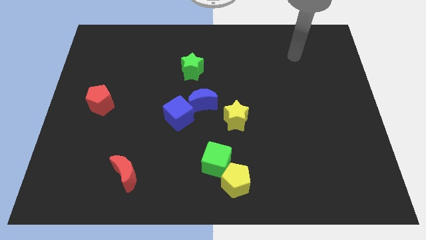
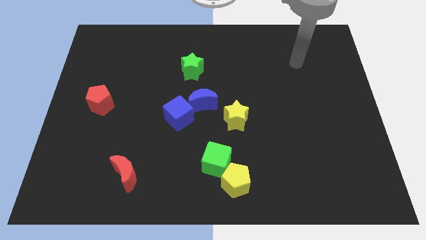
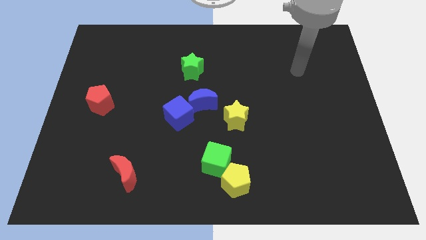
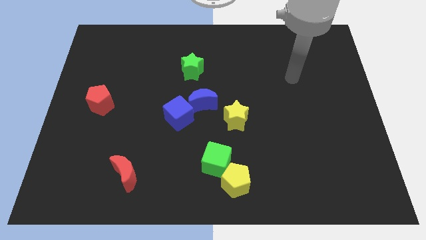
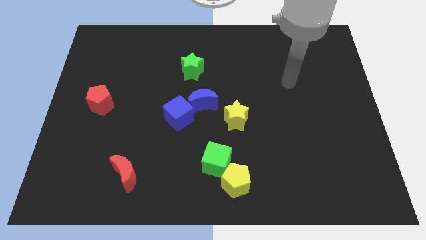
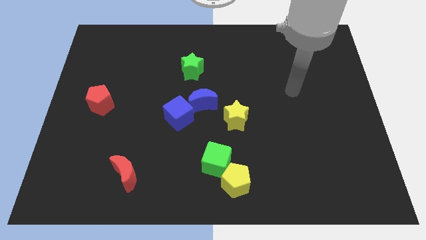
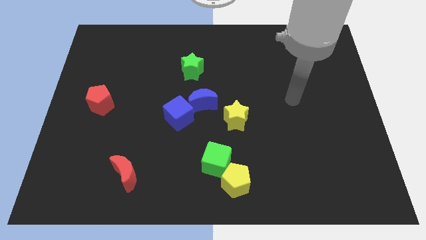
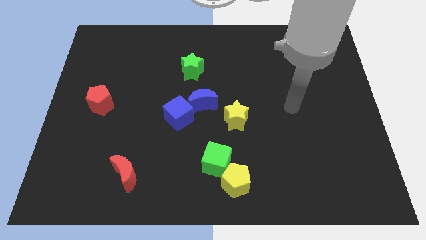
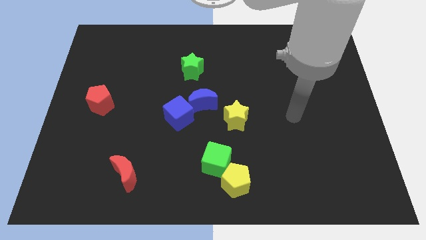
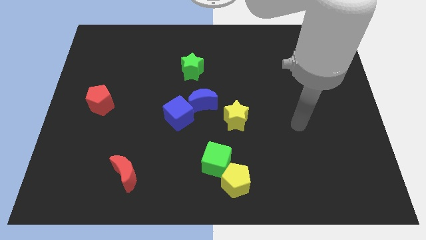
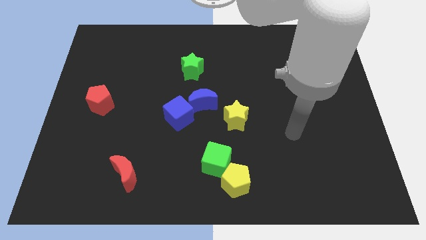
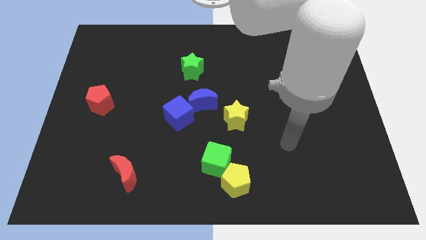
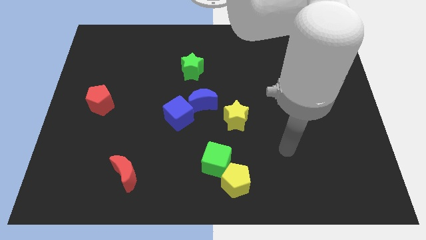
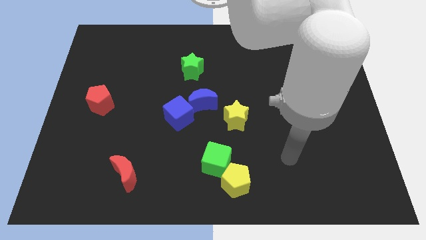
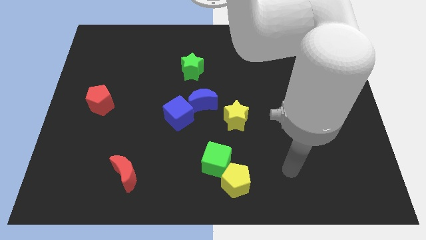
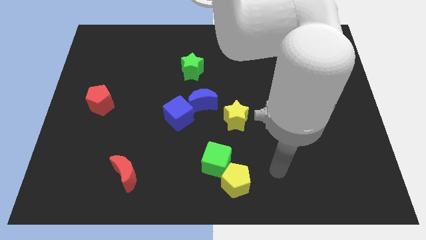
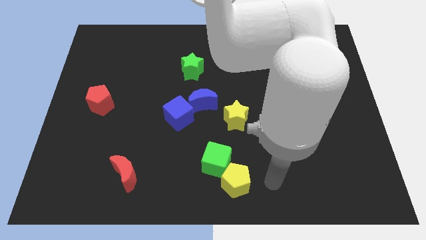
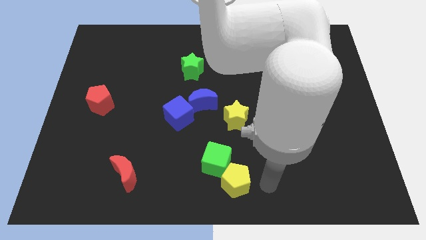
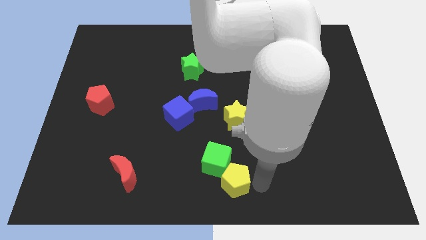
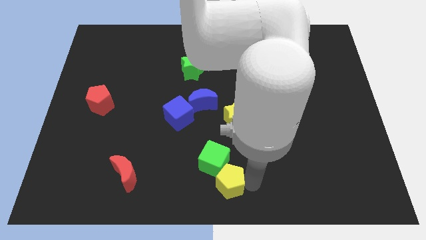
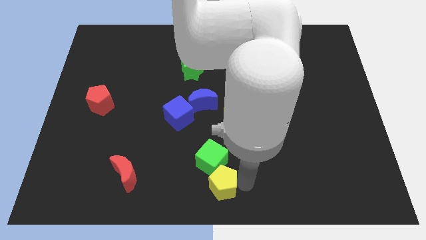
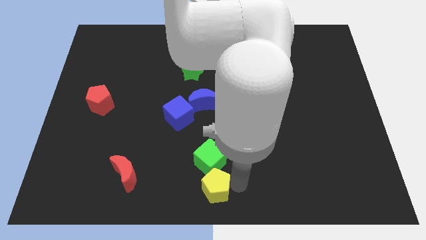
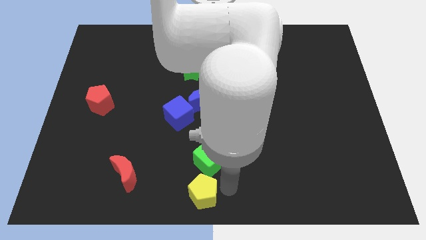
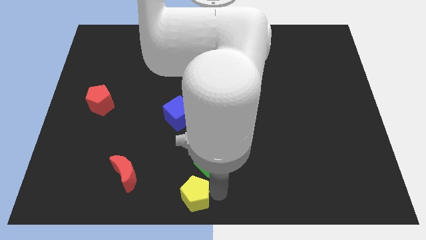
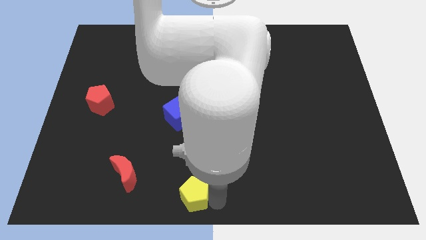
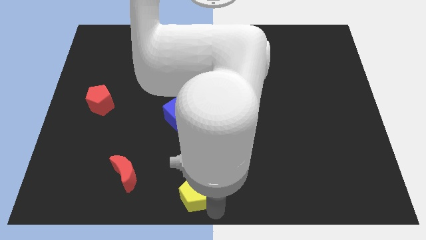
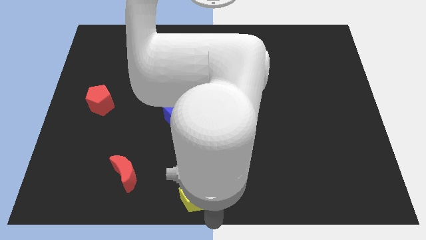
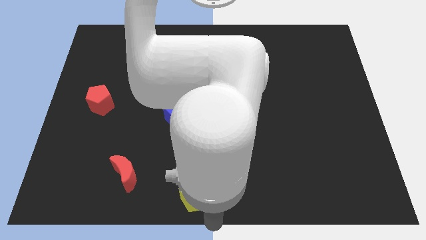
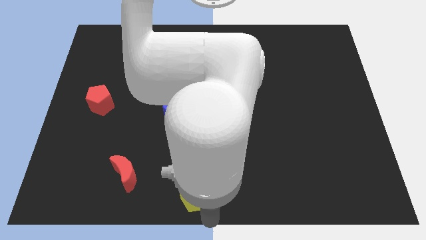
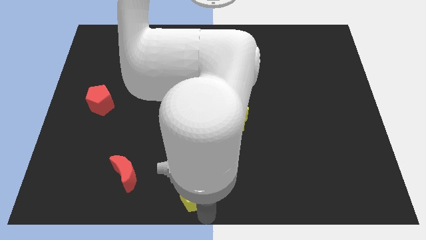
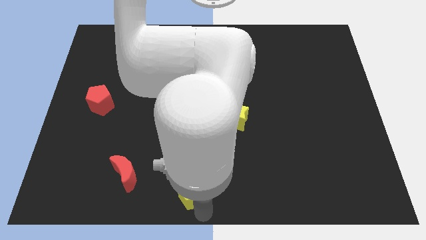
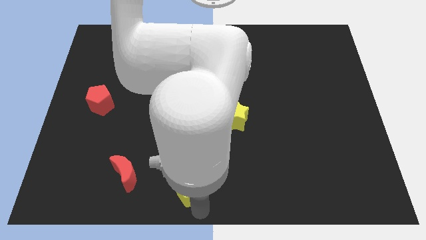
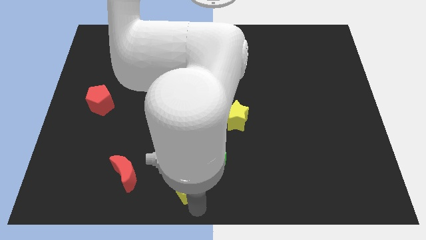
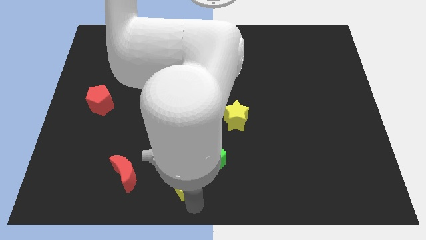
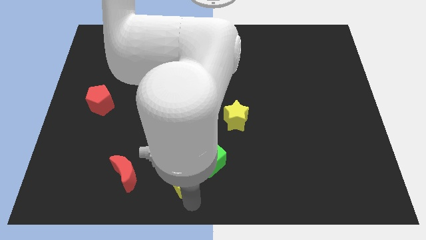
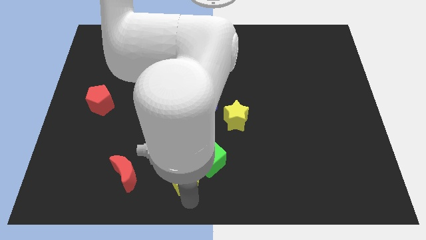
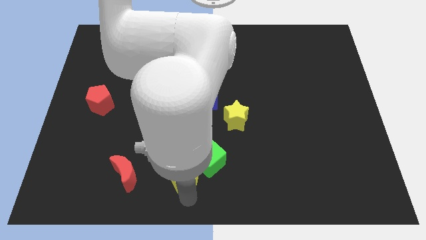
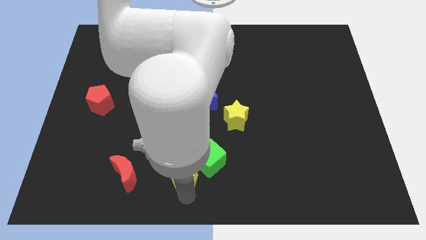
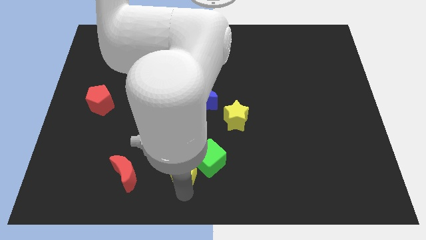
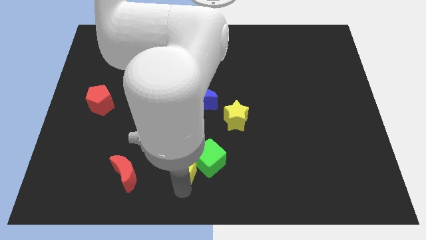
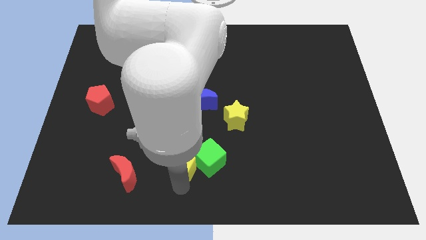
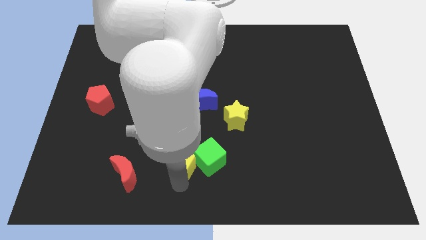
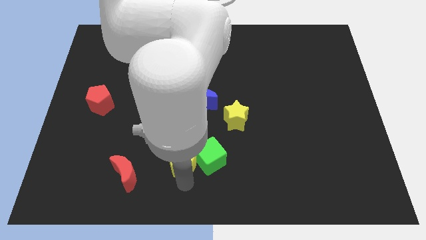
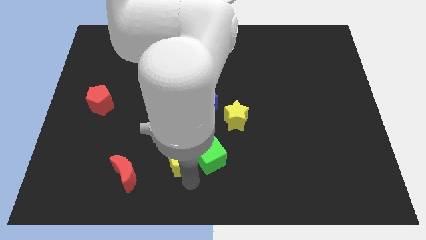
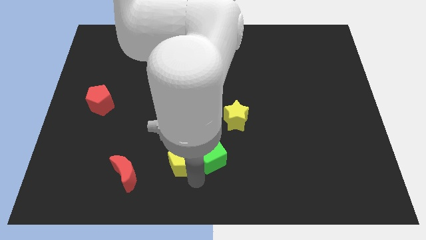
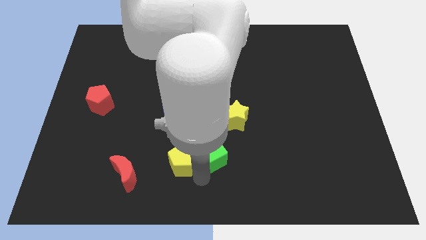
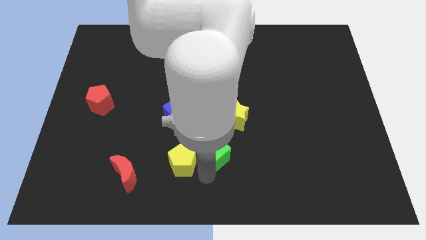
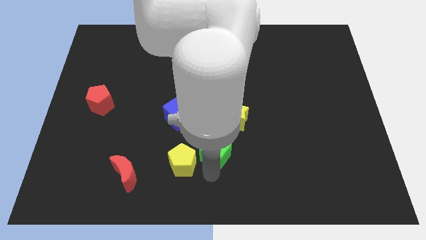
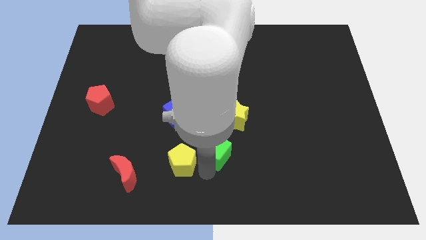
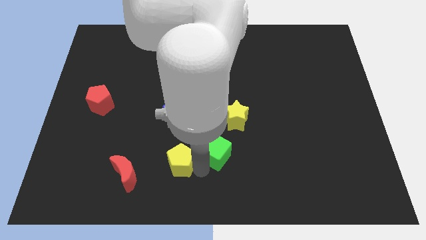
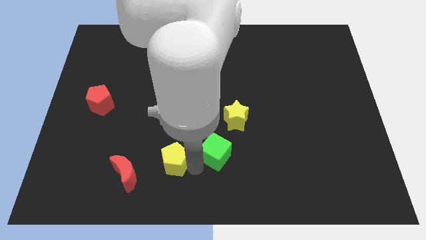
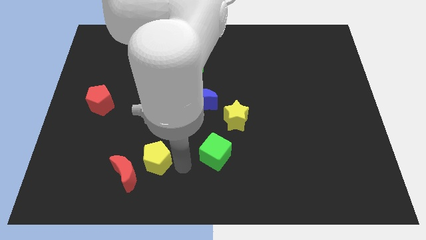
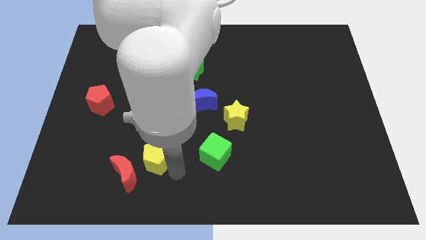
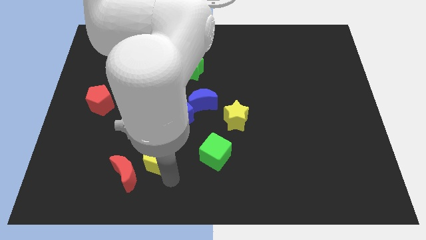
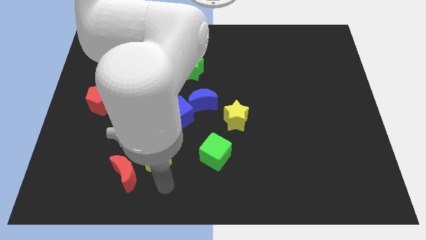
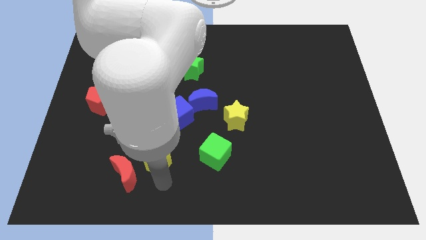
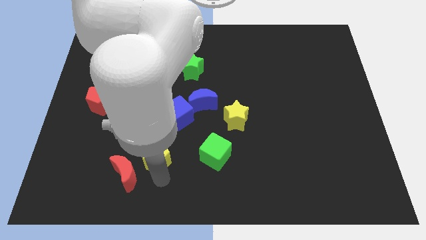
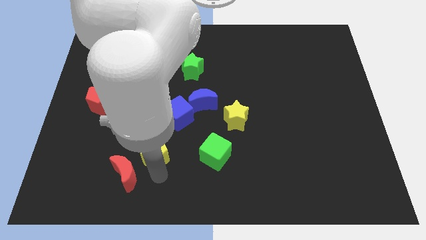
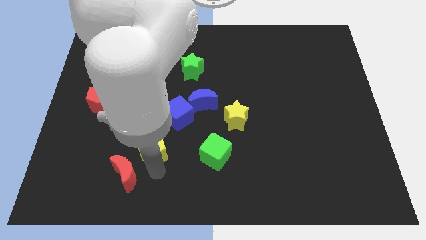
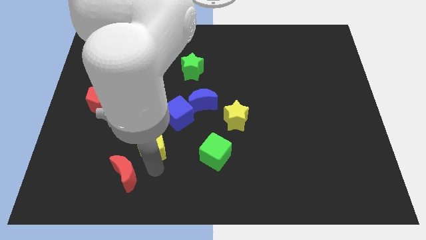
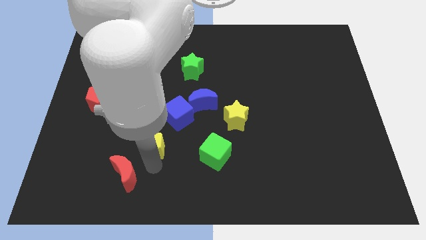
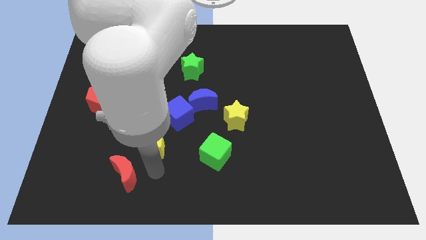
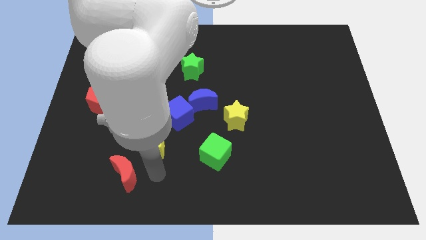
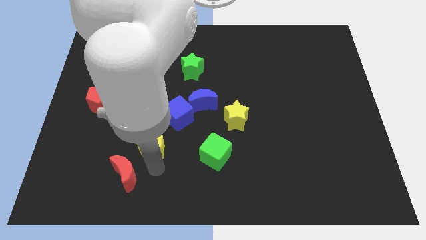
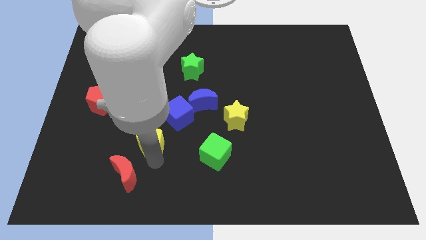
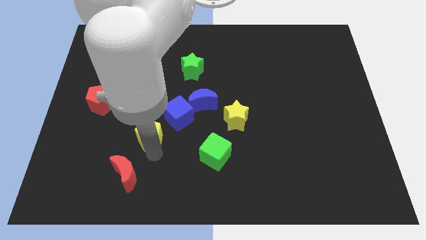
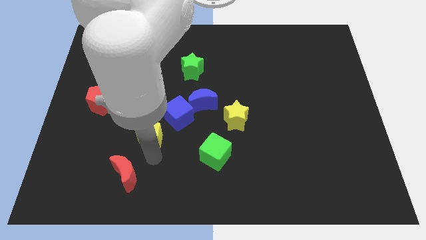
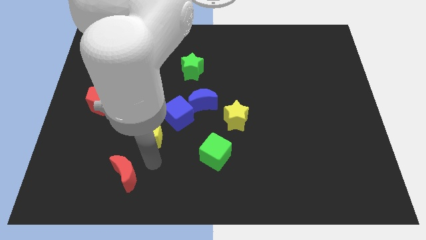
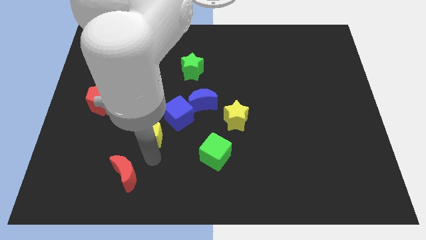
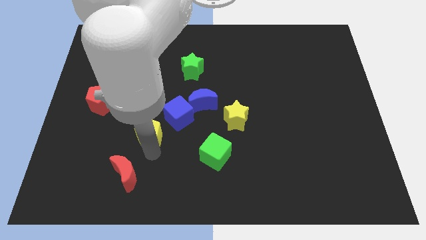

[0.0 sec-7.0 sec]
slide the yellow pentagon diagonally upwards and left

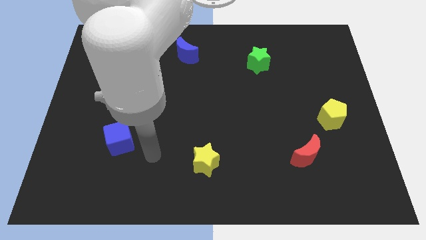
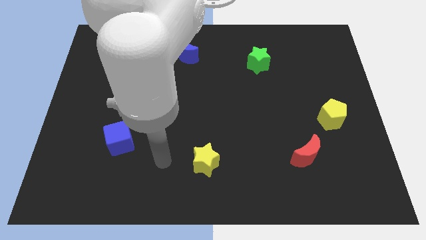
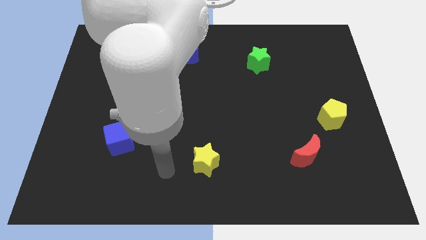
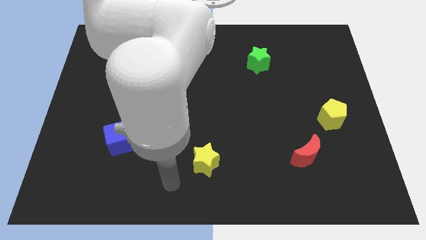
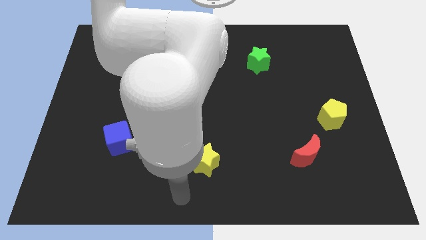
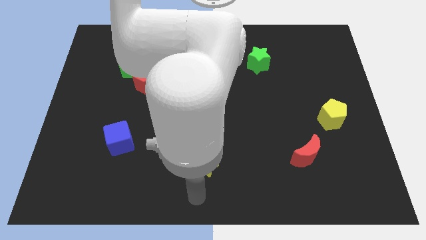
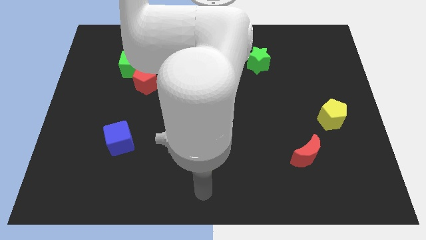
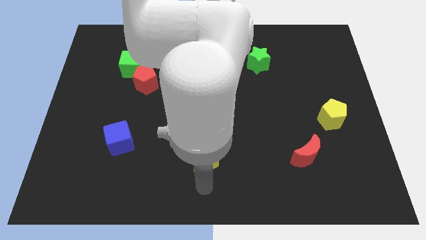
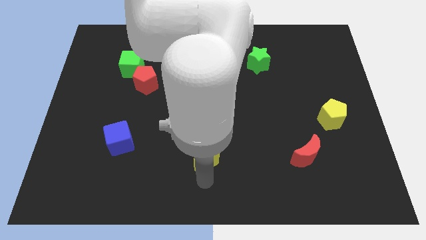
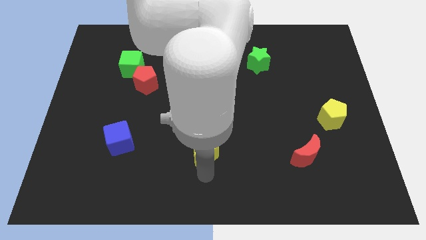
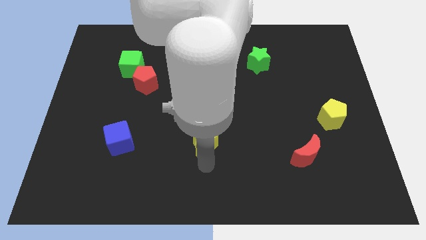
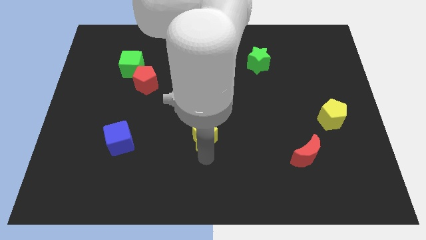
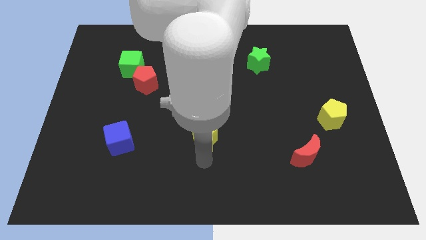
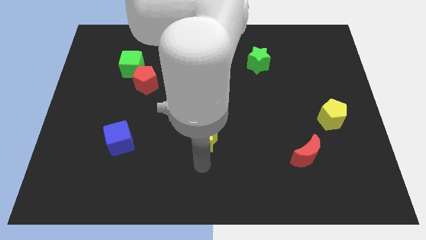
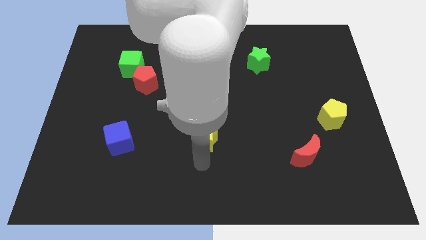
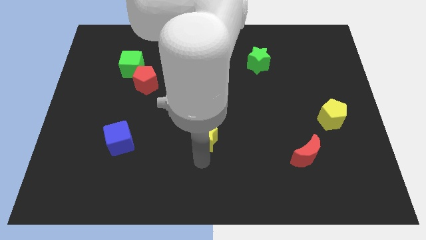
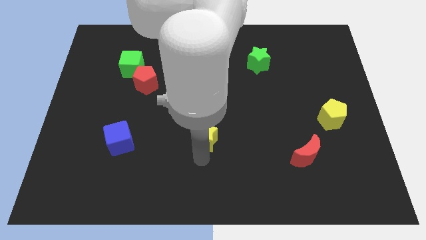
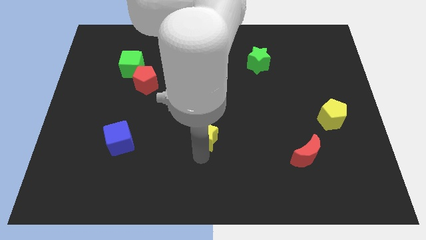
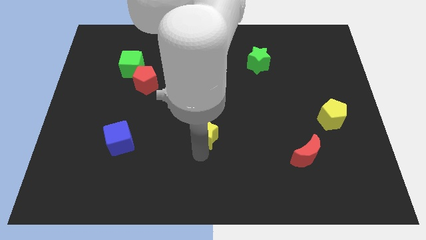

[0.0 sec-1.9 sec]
move the yellow star a little bit up
